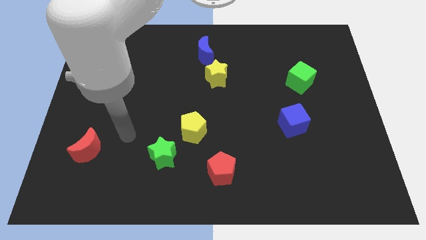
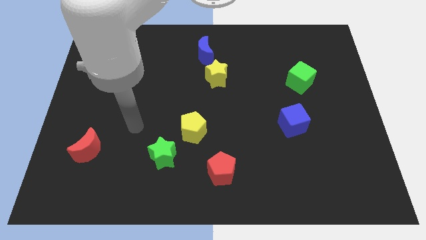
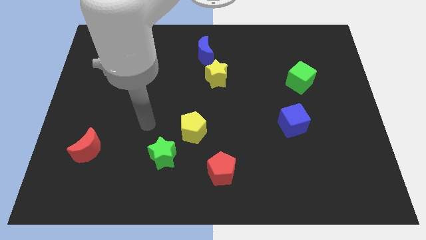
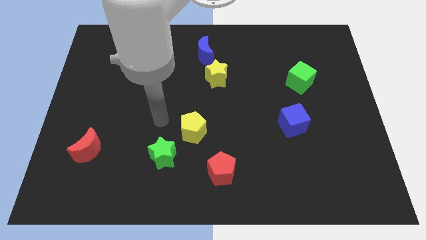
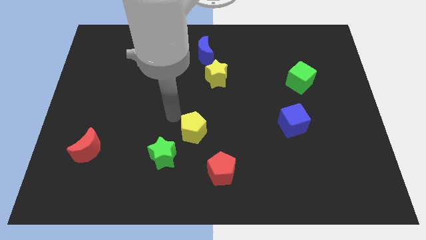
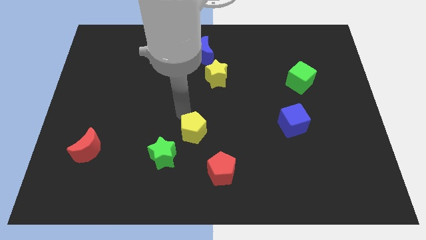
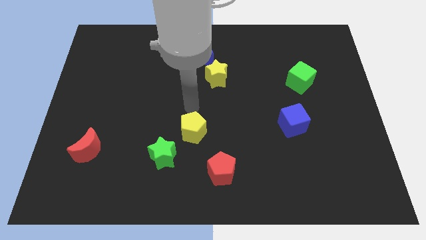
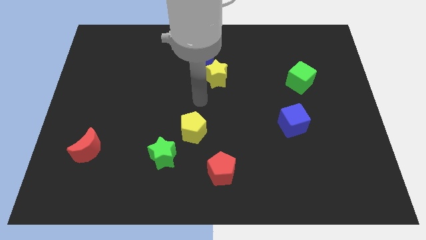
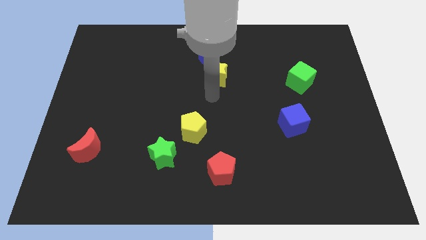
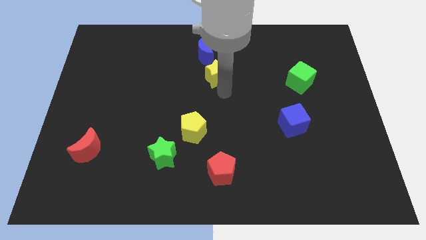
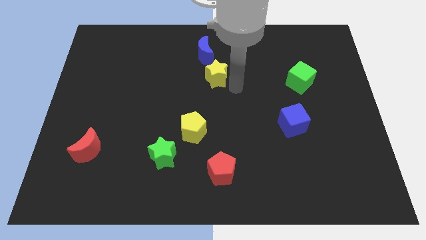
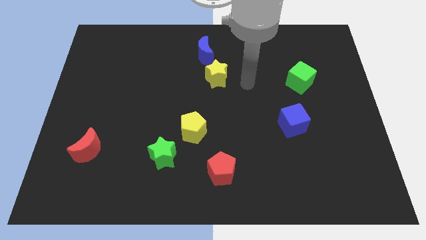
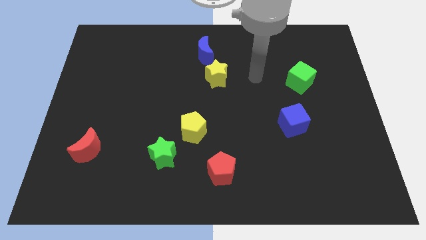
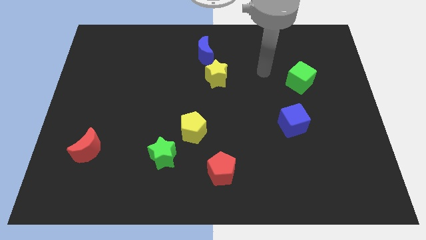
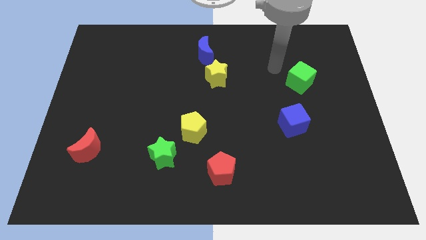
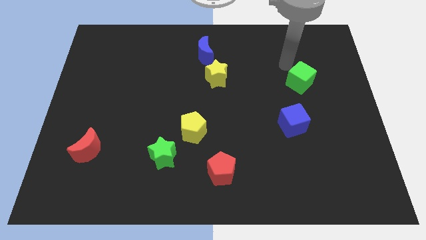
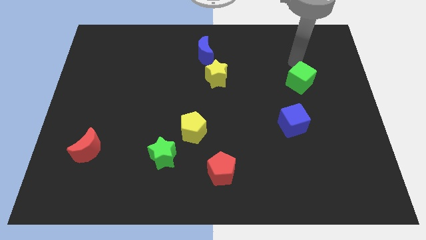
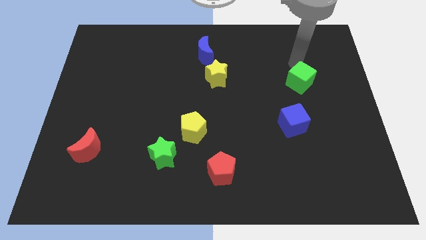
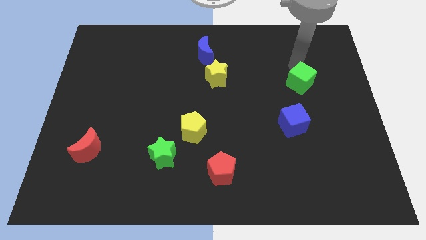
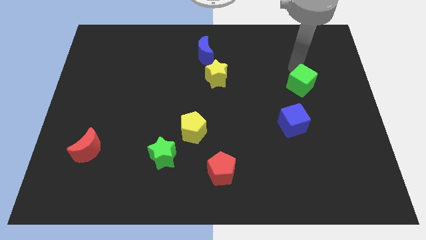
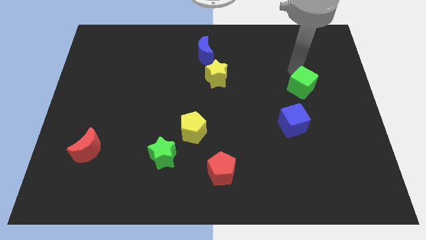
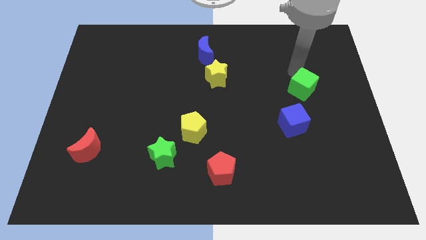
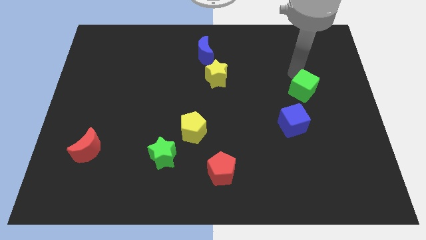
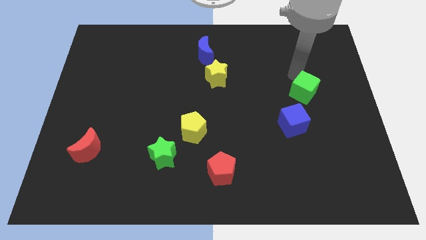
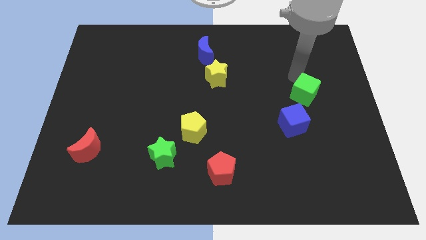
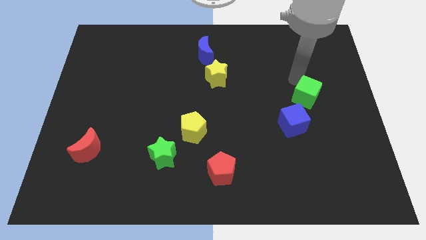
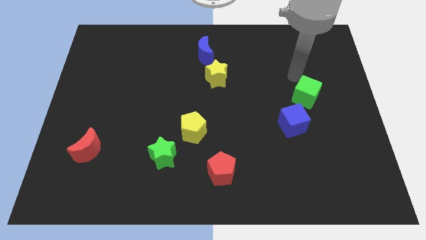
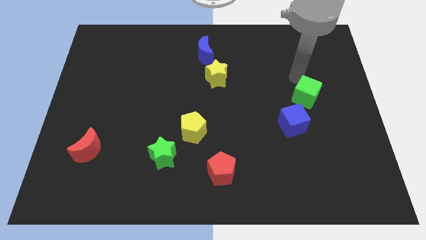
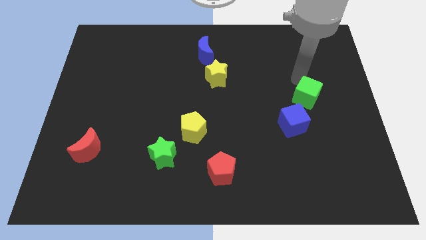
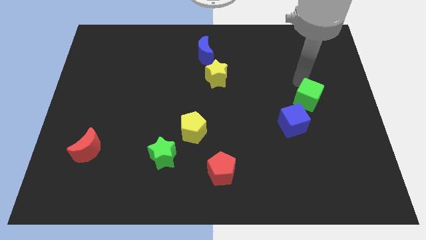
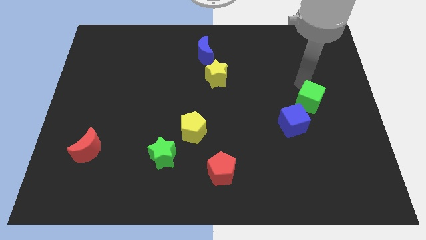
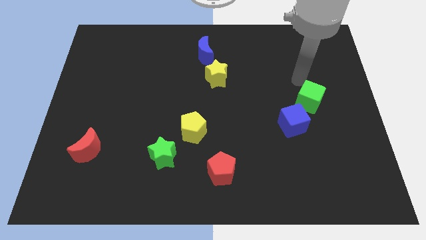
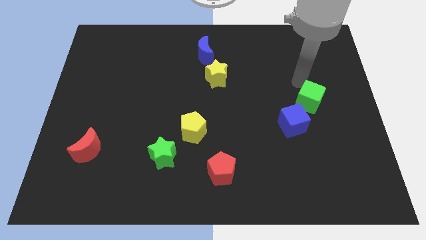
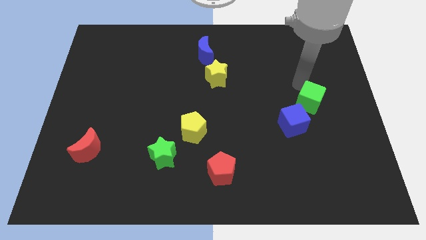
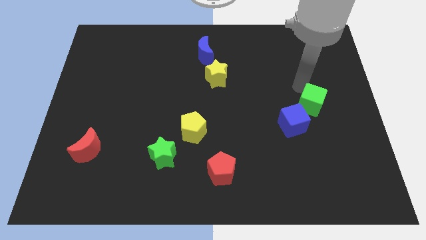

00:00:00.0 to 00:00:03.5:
move the green cube down a bit

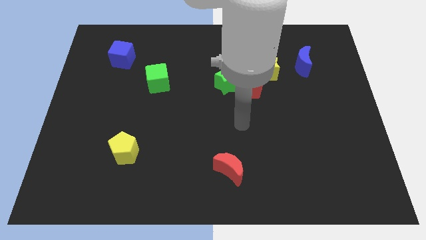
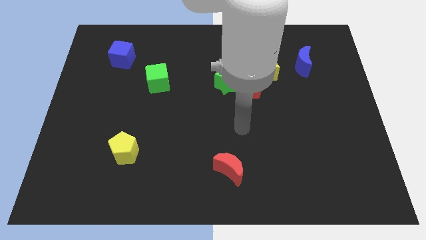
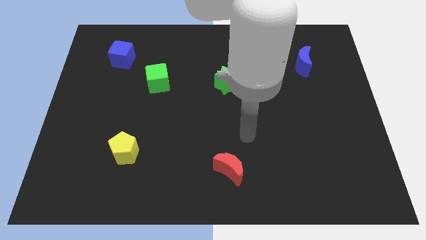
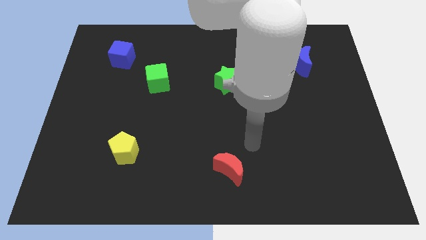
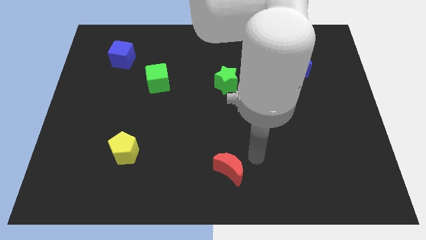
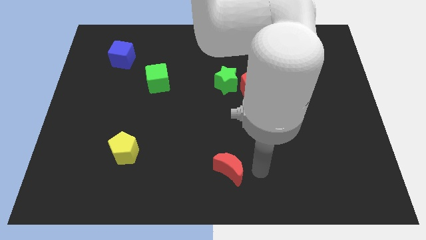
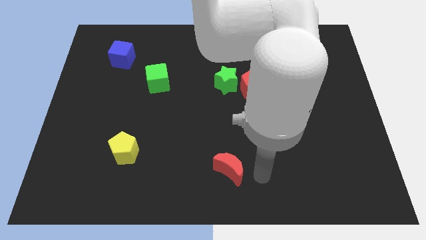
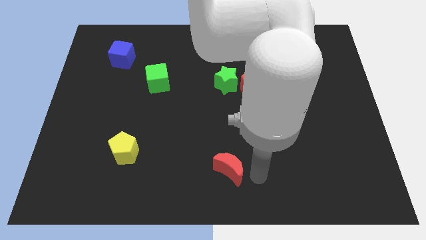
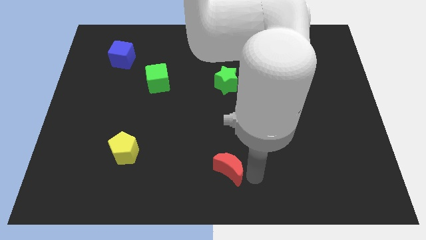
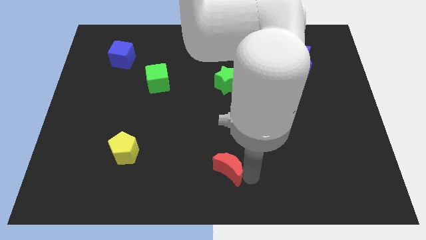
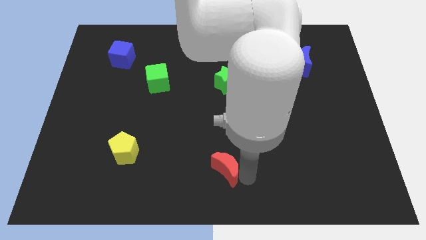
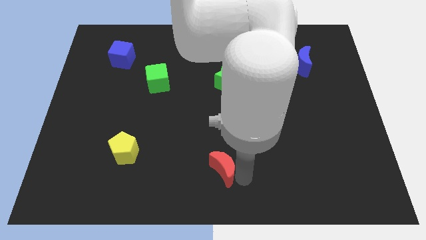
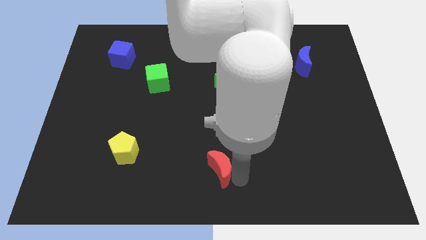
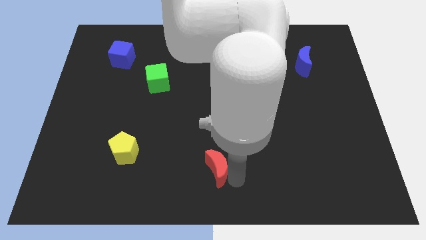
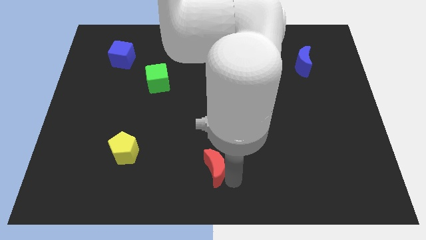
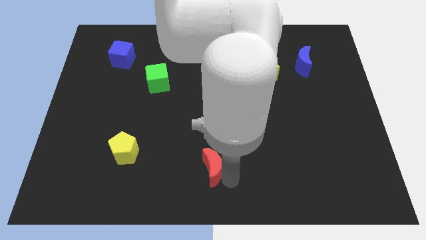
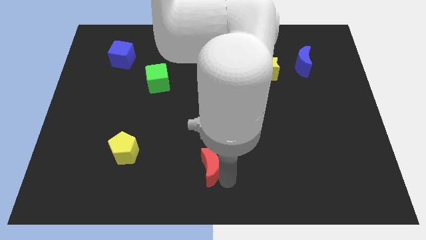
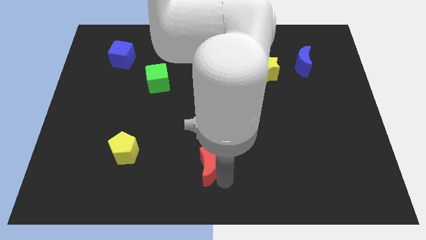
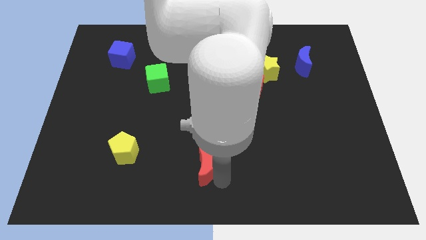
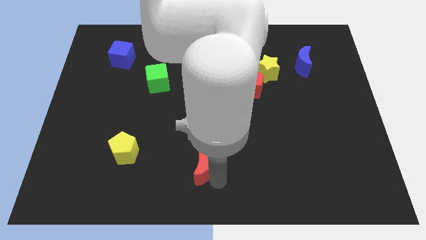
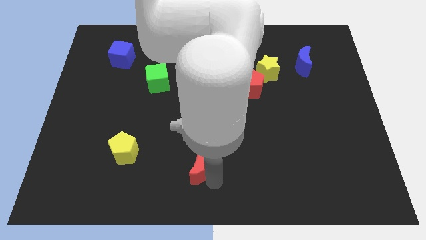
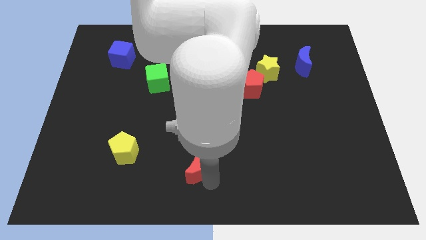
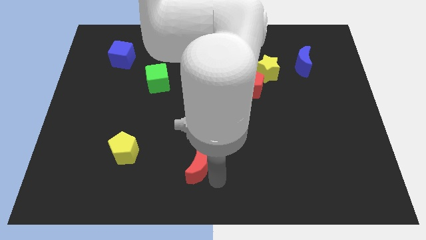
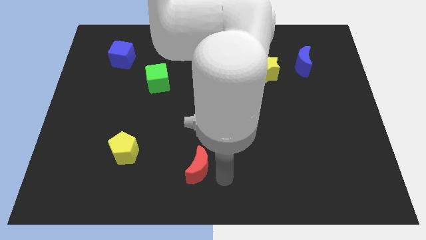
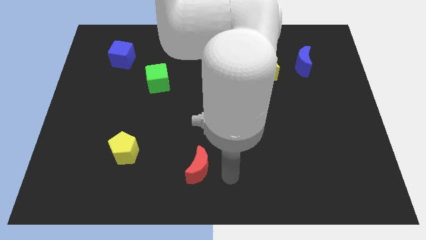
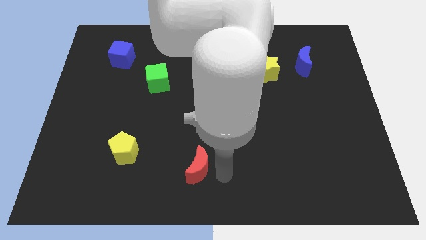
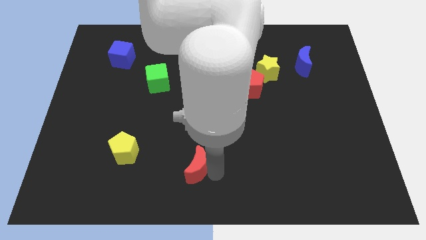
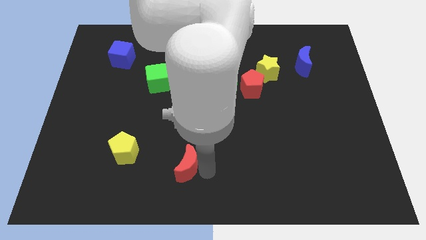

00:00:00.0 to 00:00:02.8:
move the red moon to the left a bit

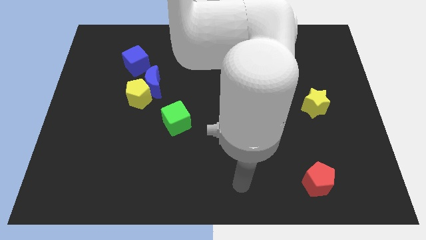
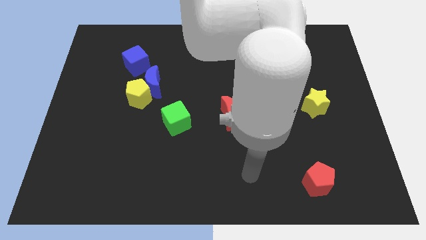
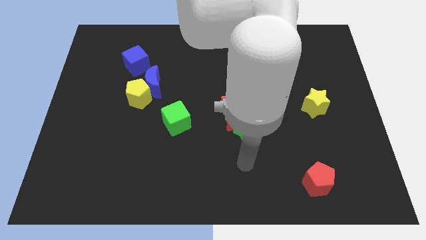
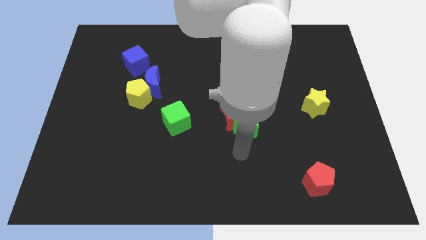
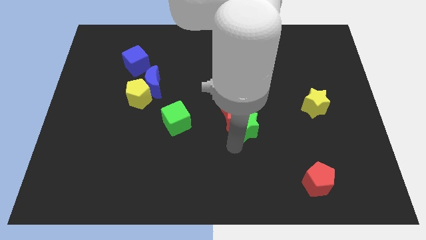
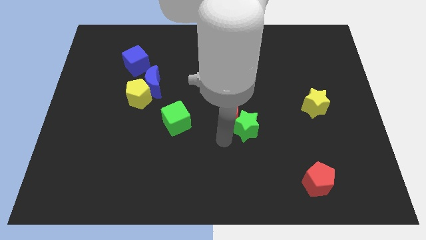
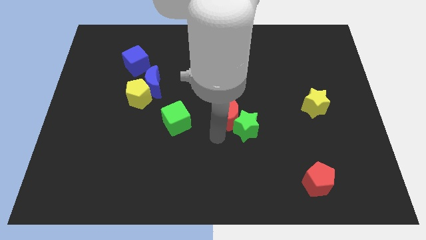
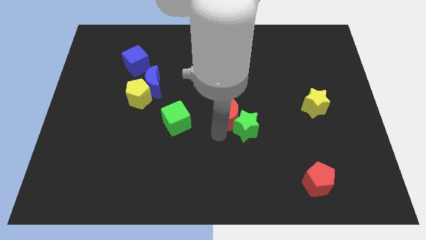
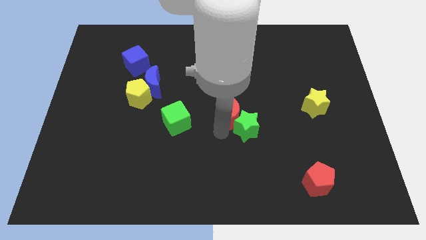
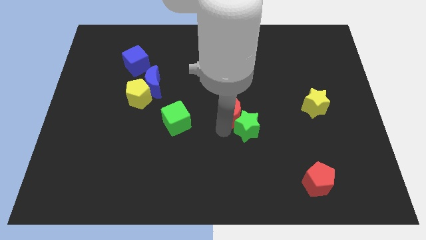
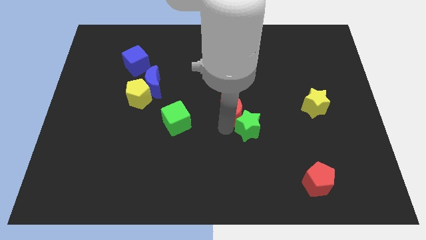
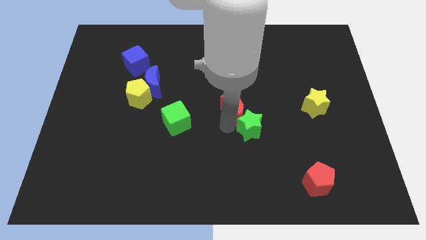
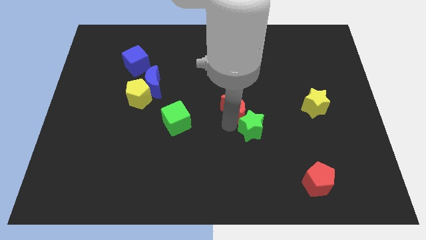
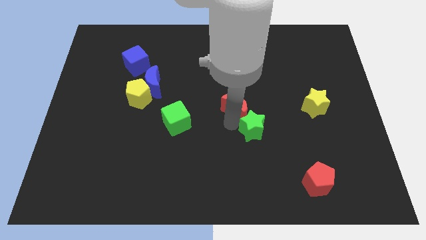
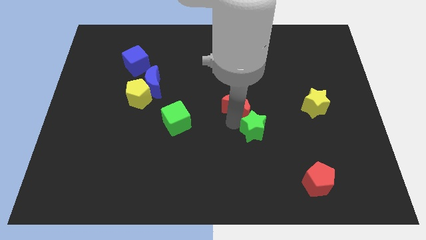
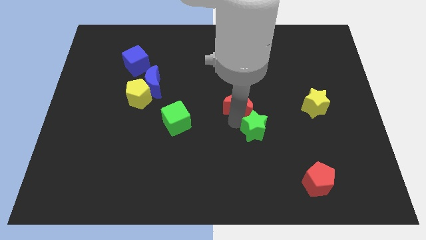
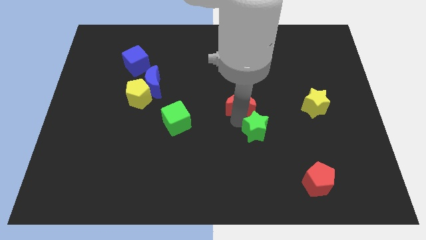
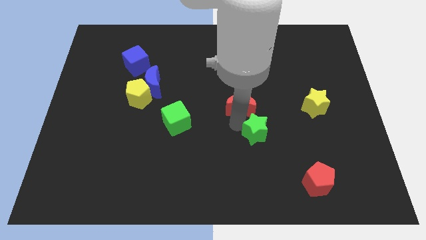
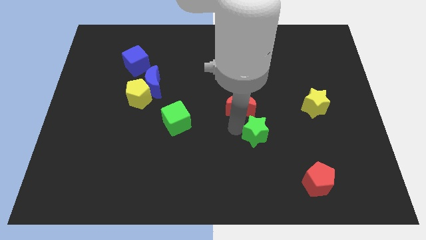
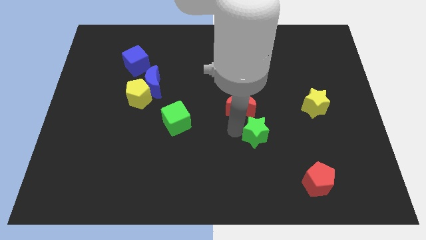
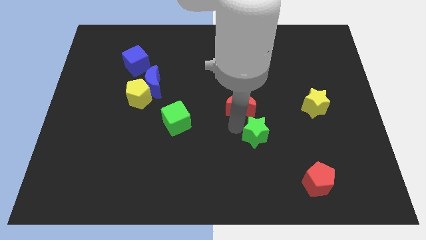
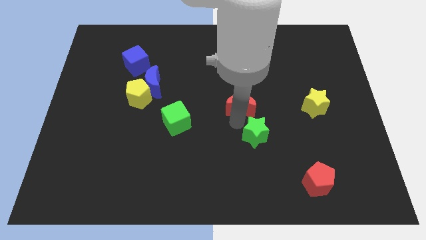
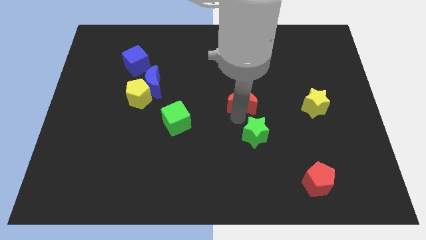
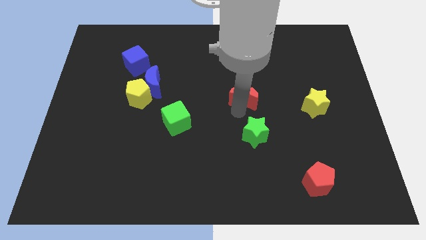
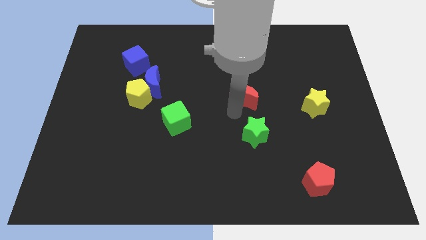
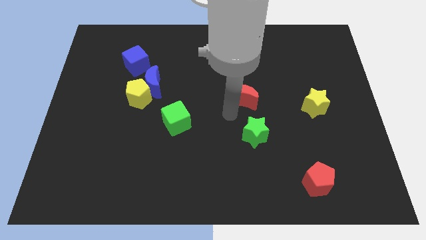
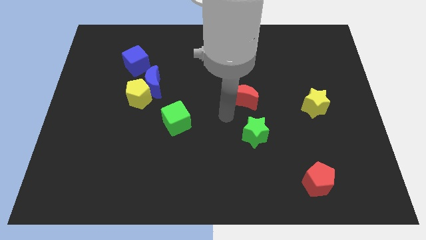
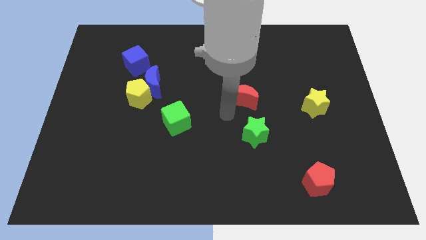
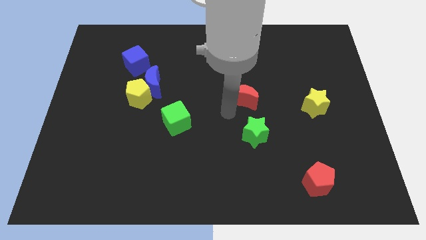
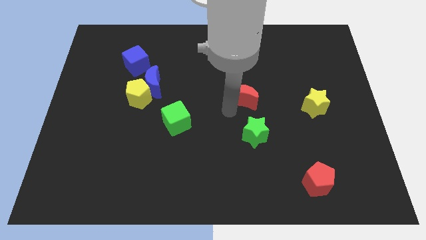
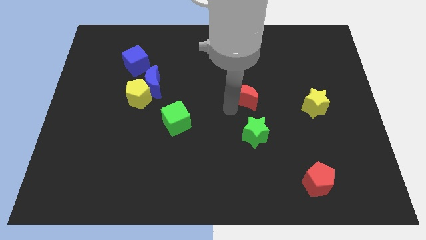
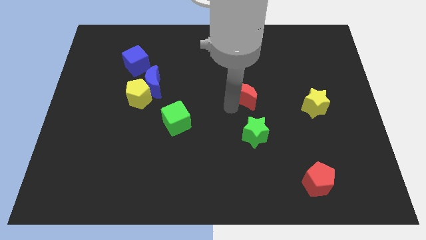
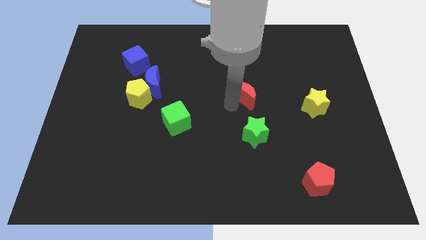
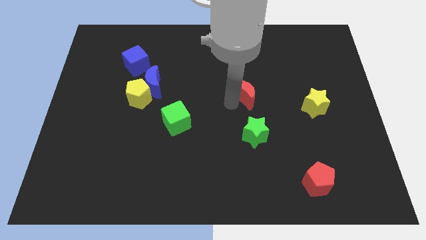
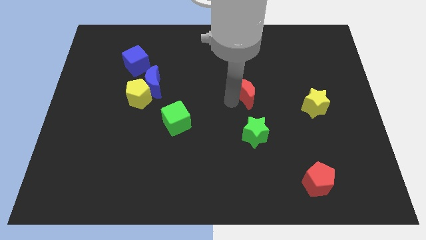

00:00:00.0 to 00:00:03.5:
slide the red moon up and to the right a bit
